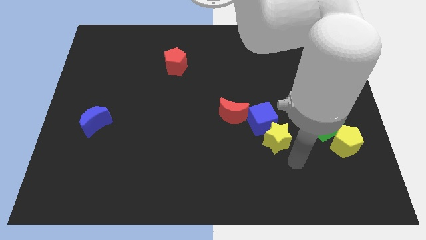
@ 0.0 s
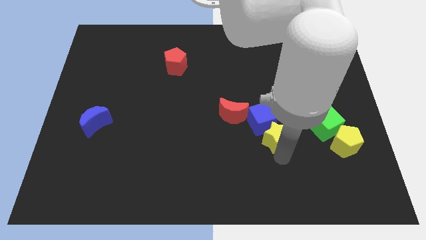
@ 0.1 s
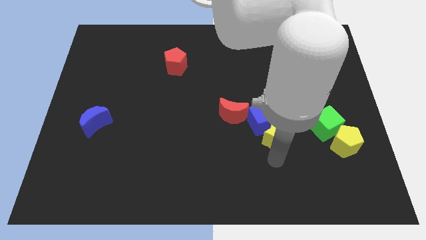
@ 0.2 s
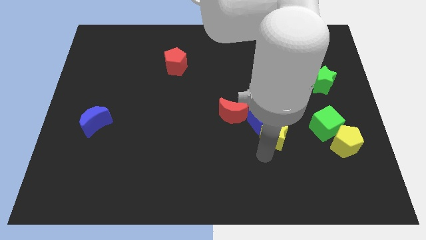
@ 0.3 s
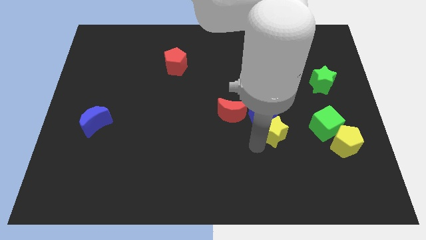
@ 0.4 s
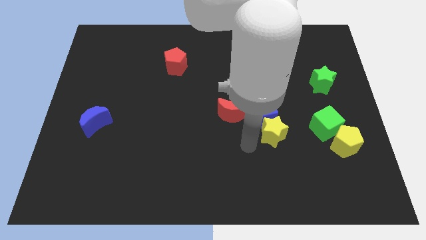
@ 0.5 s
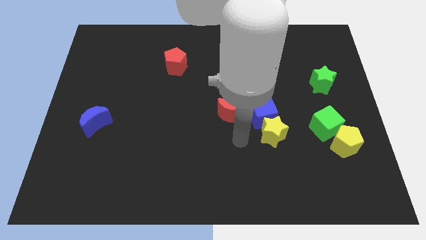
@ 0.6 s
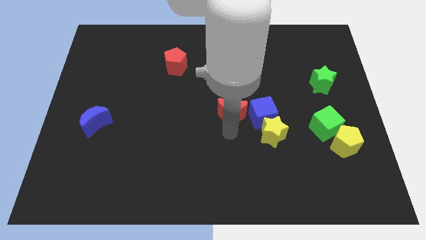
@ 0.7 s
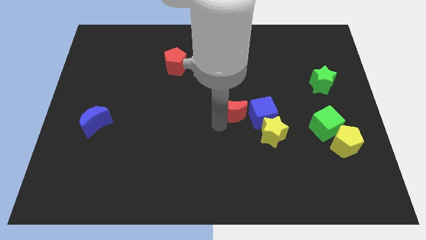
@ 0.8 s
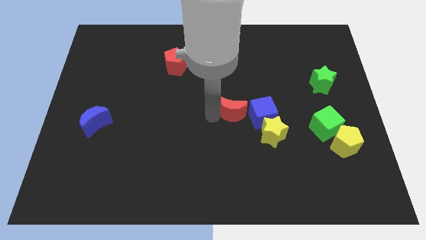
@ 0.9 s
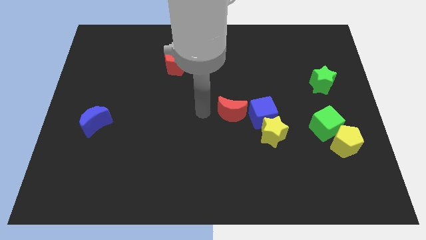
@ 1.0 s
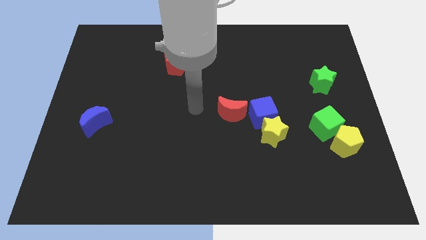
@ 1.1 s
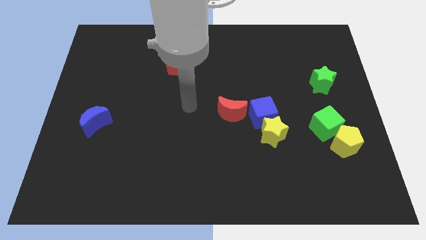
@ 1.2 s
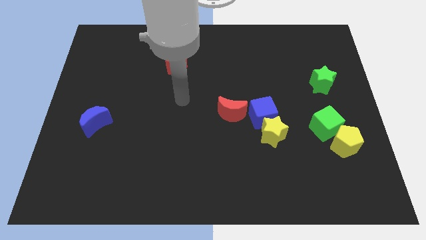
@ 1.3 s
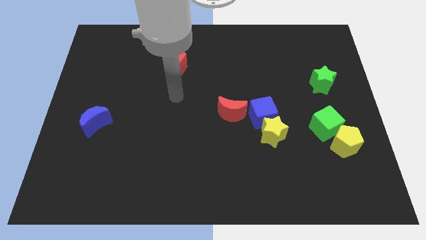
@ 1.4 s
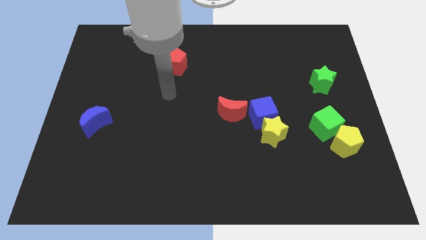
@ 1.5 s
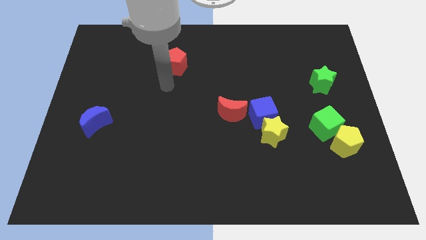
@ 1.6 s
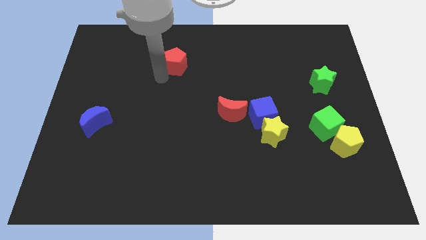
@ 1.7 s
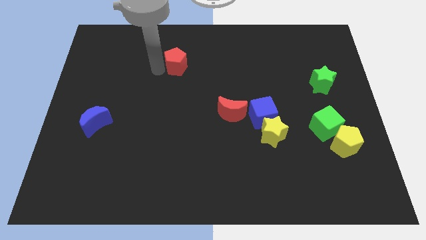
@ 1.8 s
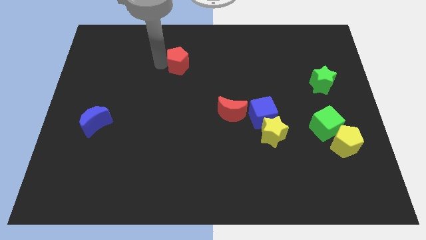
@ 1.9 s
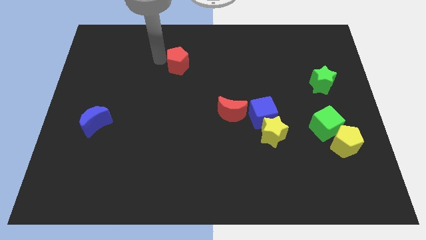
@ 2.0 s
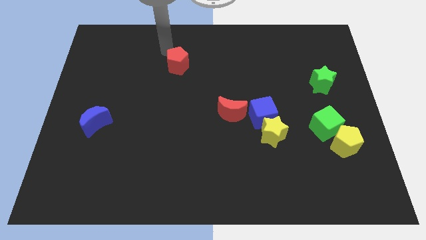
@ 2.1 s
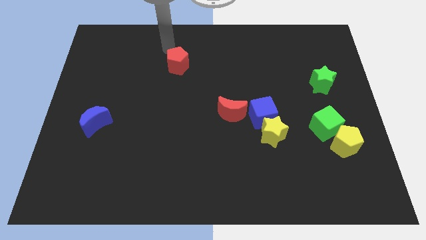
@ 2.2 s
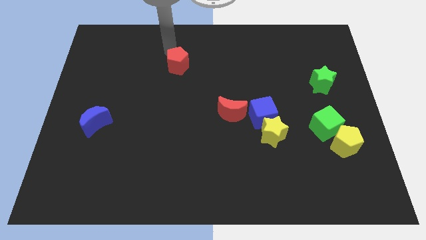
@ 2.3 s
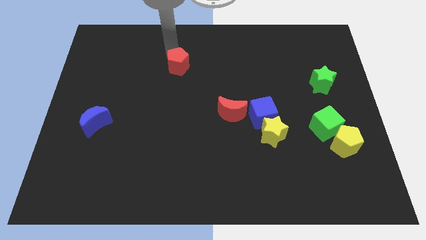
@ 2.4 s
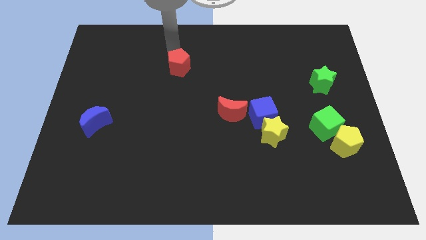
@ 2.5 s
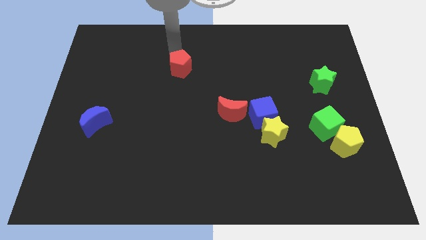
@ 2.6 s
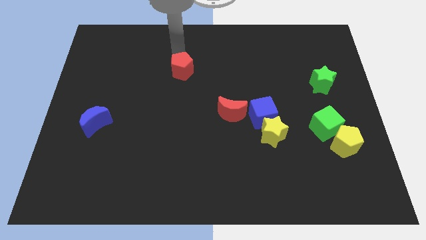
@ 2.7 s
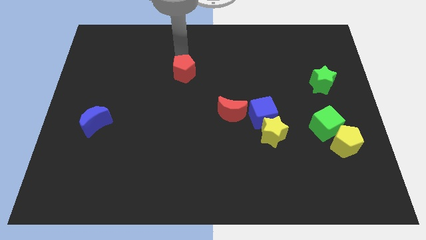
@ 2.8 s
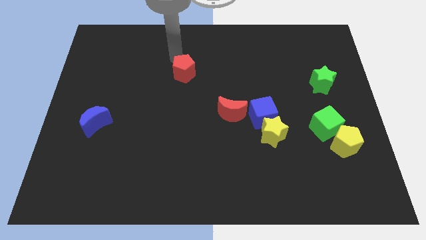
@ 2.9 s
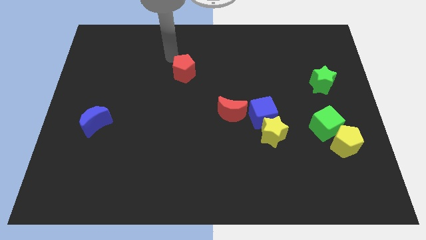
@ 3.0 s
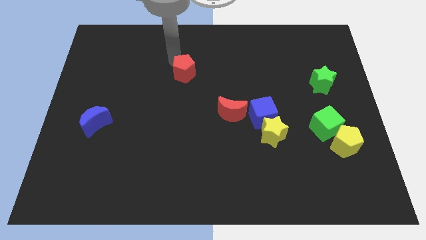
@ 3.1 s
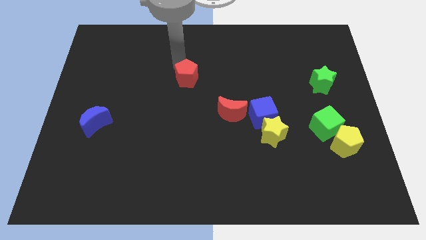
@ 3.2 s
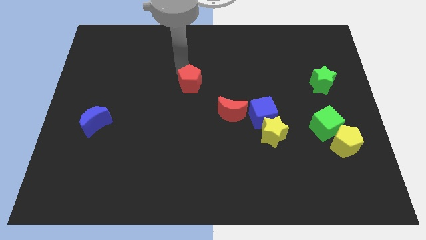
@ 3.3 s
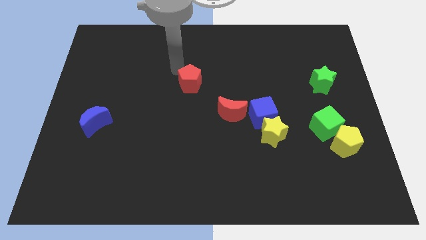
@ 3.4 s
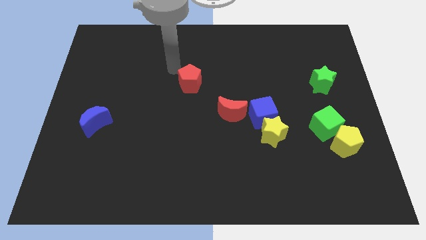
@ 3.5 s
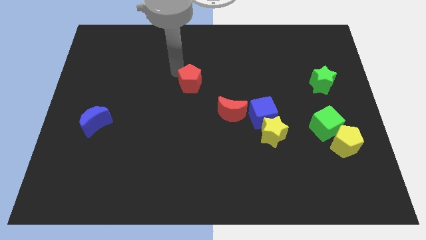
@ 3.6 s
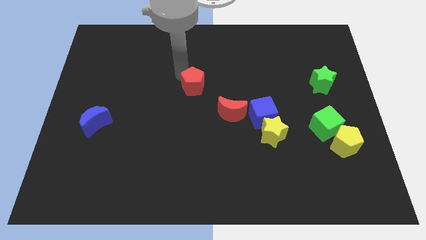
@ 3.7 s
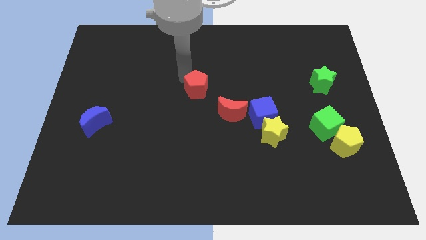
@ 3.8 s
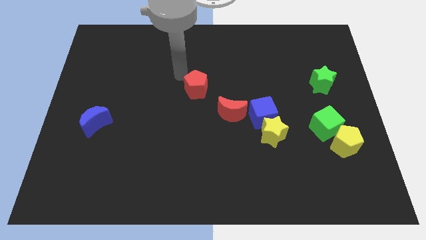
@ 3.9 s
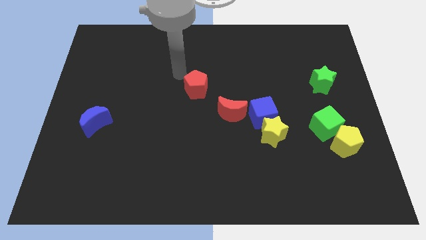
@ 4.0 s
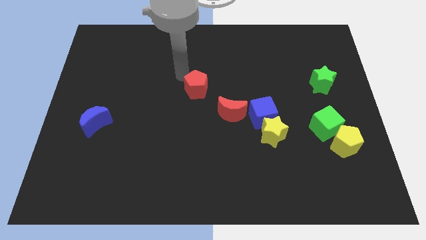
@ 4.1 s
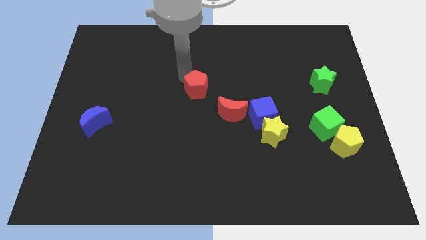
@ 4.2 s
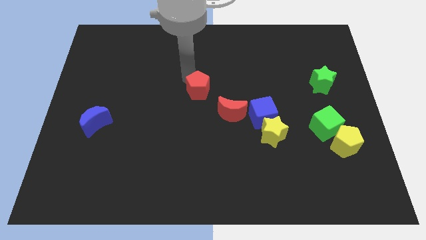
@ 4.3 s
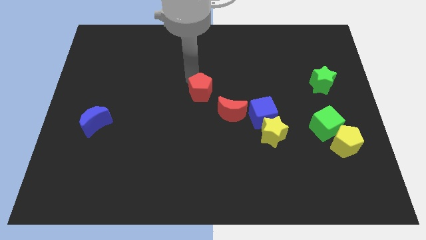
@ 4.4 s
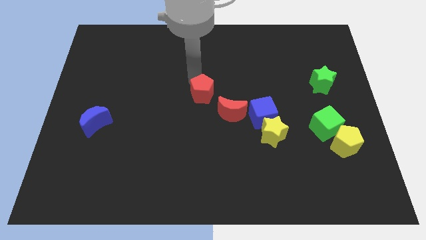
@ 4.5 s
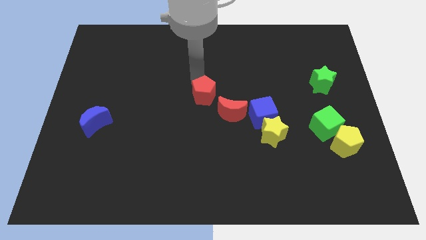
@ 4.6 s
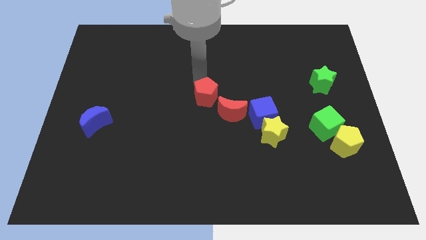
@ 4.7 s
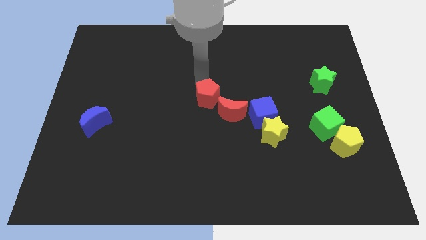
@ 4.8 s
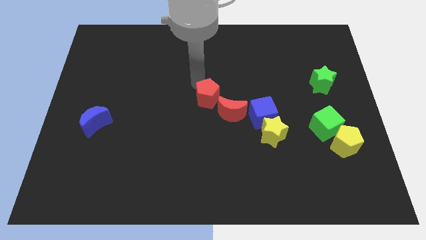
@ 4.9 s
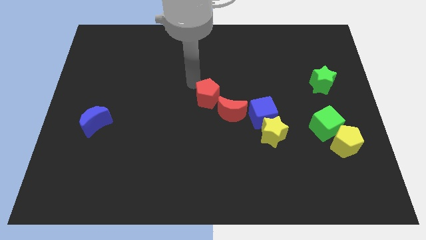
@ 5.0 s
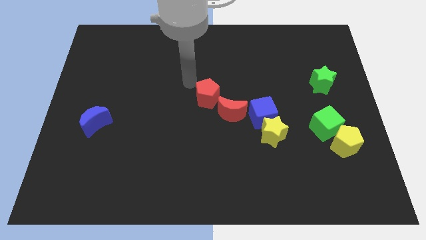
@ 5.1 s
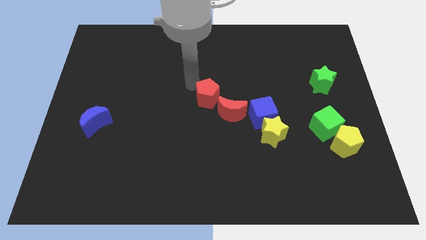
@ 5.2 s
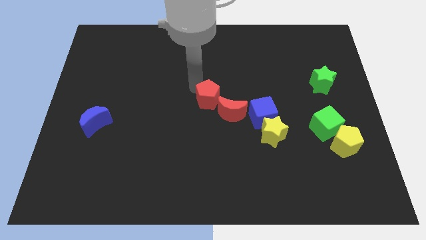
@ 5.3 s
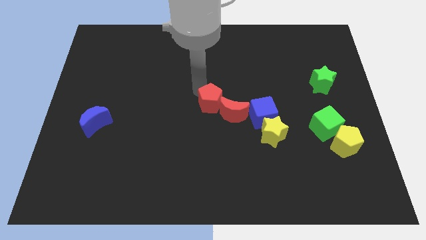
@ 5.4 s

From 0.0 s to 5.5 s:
move the red pentagon next to the red moon

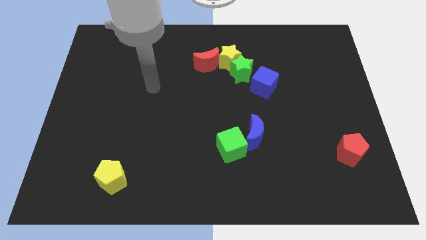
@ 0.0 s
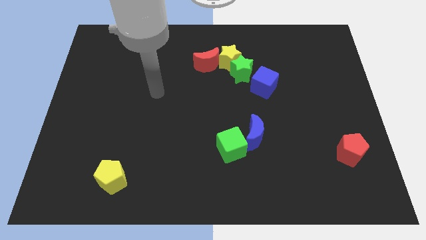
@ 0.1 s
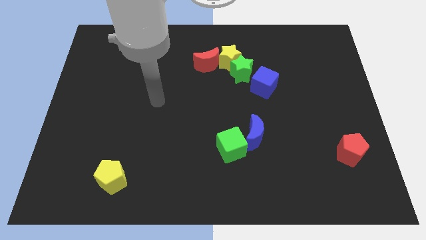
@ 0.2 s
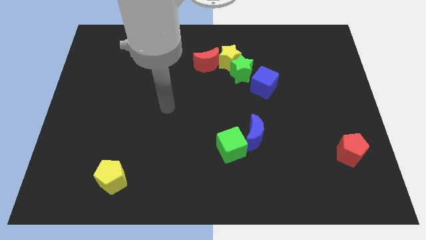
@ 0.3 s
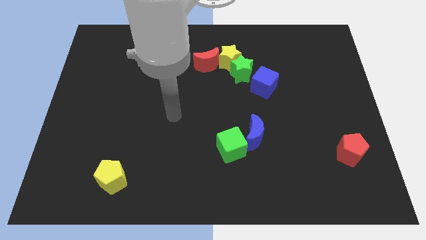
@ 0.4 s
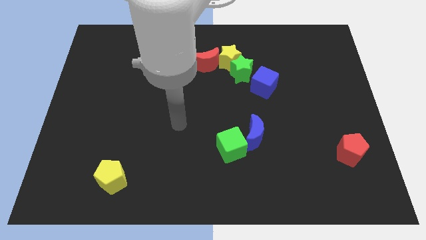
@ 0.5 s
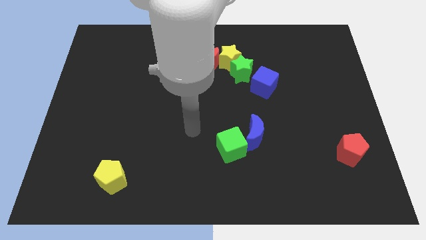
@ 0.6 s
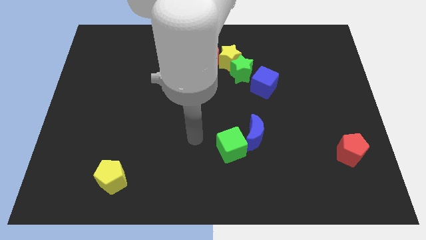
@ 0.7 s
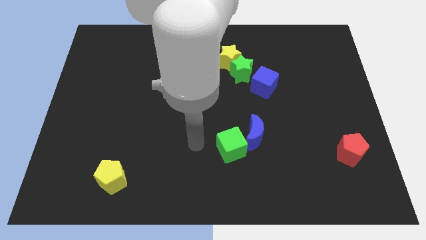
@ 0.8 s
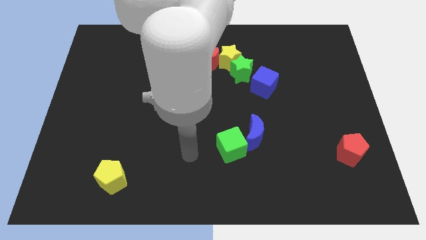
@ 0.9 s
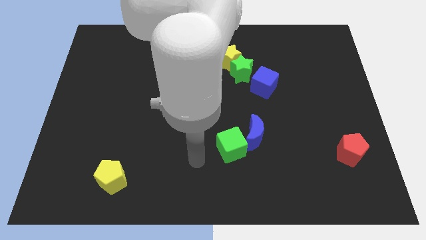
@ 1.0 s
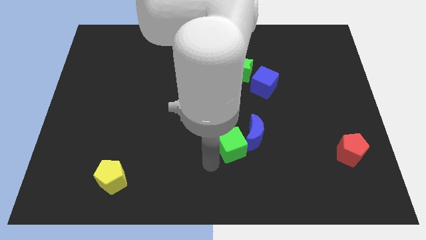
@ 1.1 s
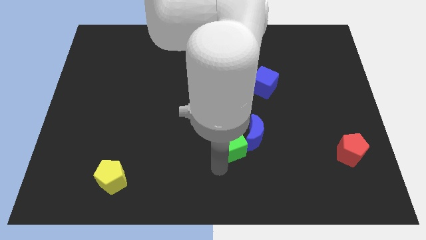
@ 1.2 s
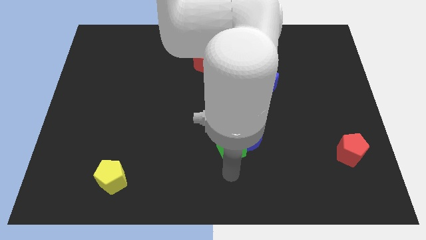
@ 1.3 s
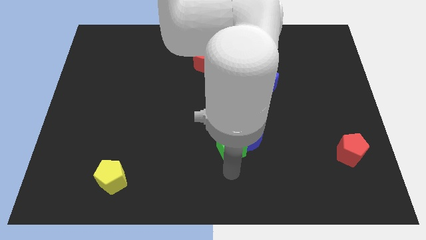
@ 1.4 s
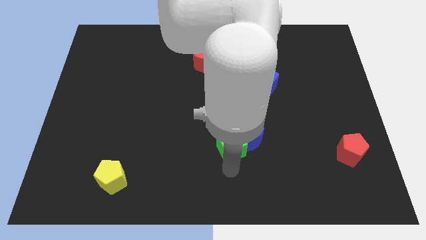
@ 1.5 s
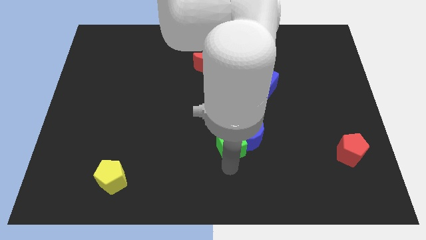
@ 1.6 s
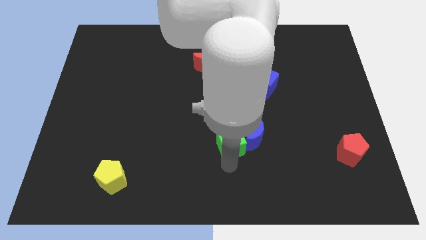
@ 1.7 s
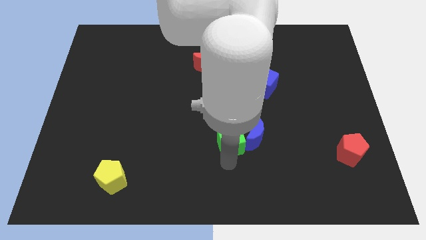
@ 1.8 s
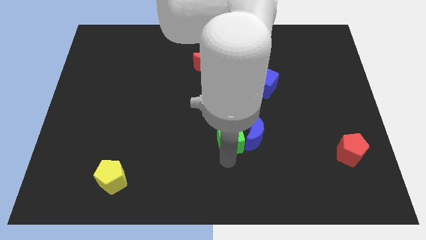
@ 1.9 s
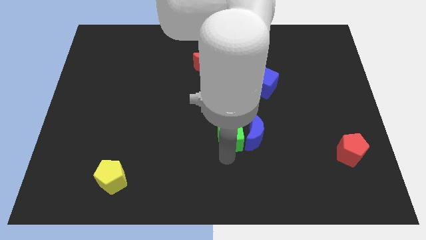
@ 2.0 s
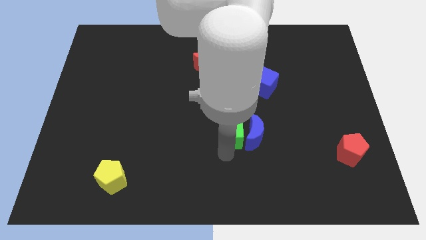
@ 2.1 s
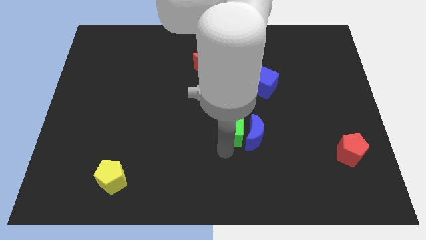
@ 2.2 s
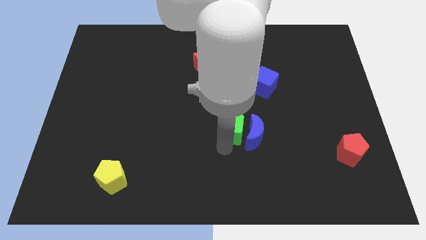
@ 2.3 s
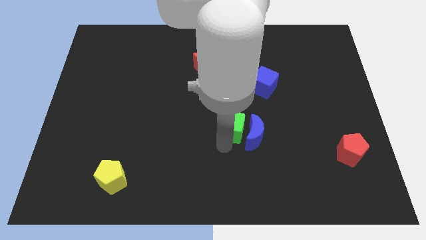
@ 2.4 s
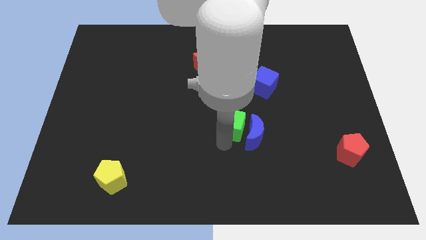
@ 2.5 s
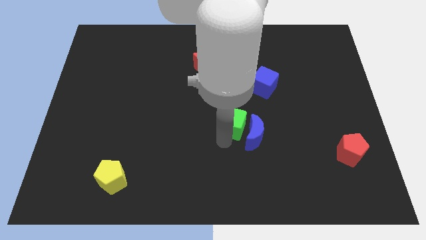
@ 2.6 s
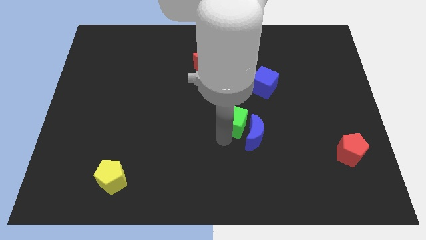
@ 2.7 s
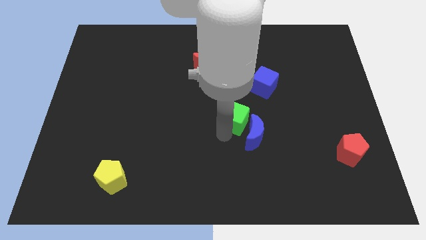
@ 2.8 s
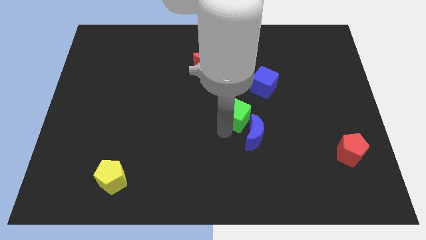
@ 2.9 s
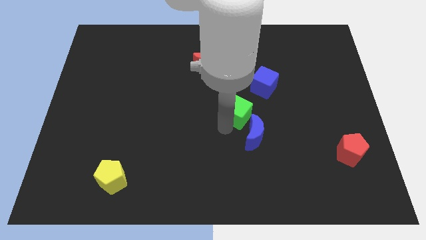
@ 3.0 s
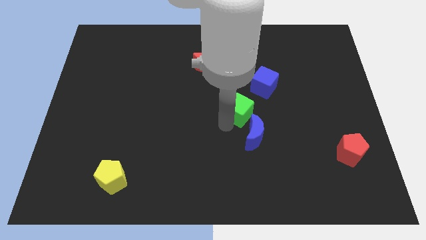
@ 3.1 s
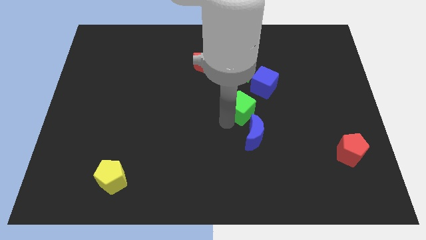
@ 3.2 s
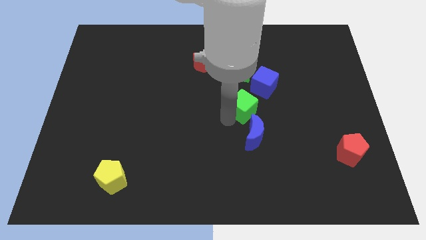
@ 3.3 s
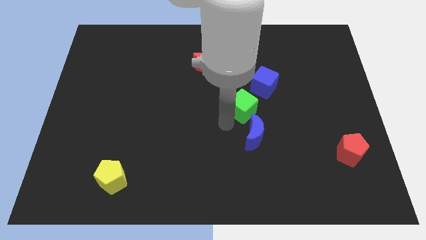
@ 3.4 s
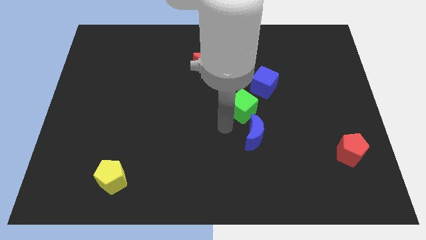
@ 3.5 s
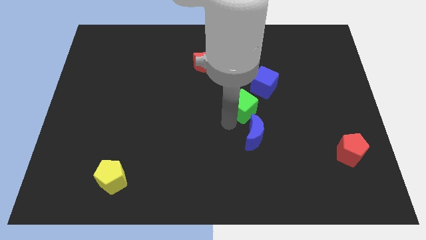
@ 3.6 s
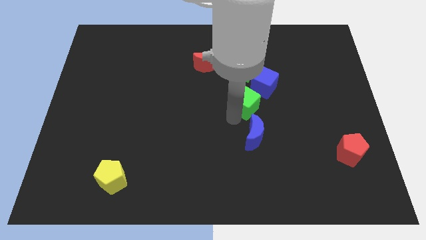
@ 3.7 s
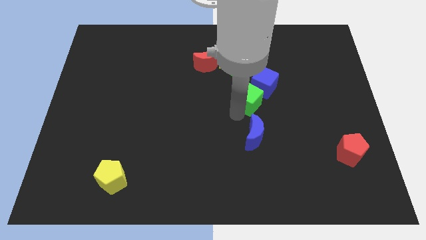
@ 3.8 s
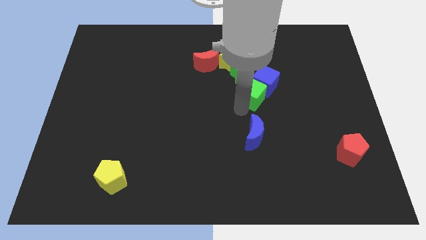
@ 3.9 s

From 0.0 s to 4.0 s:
slide the green cube towards the blue cube
